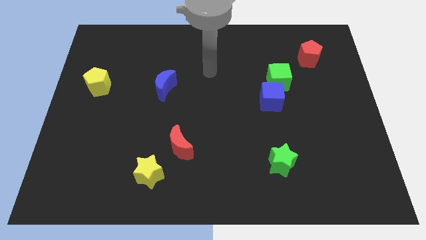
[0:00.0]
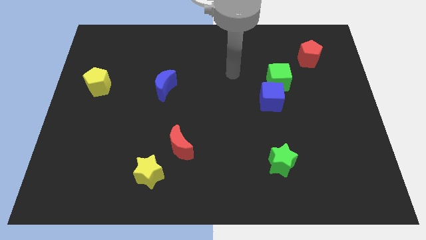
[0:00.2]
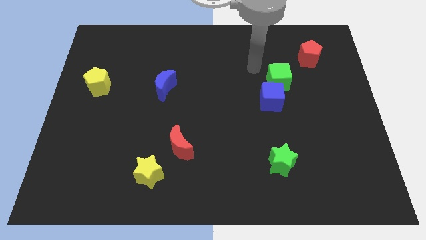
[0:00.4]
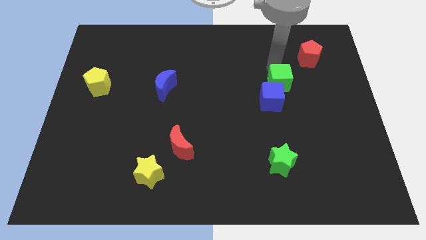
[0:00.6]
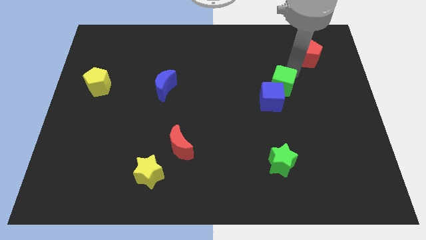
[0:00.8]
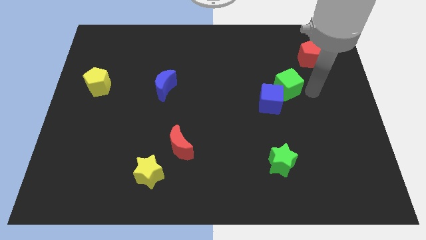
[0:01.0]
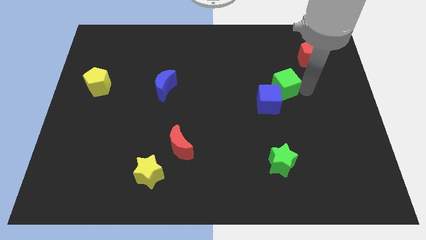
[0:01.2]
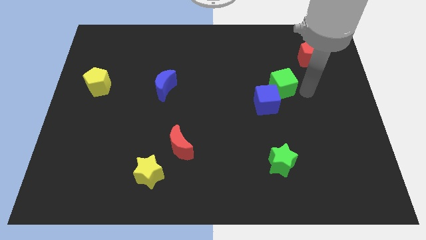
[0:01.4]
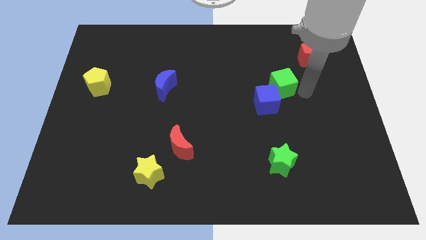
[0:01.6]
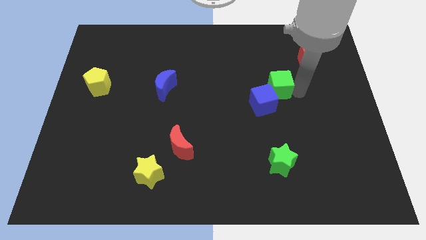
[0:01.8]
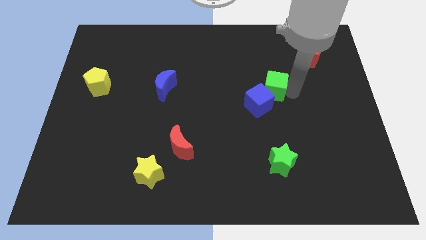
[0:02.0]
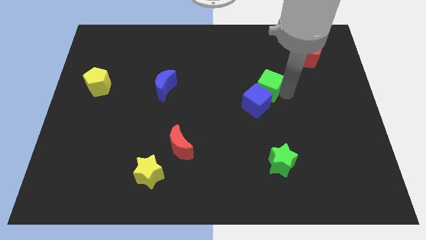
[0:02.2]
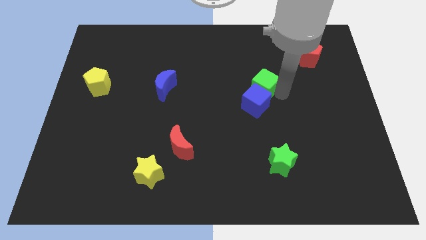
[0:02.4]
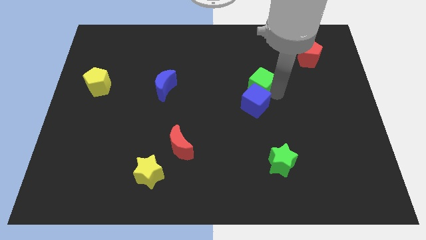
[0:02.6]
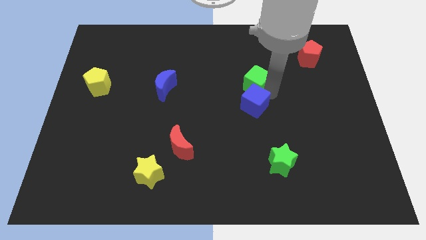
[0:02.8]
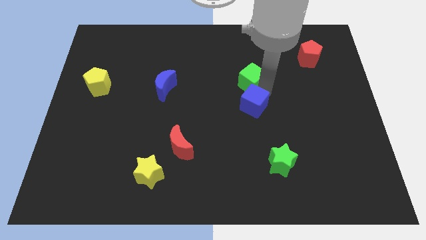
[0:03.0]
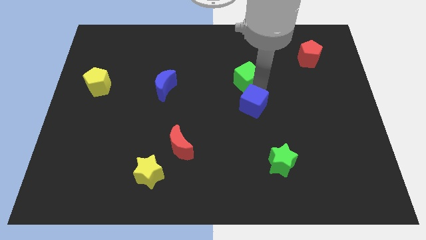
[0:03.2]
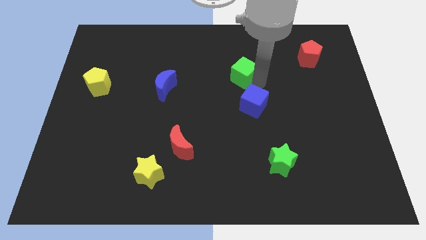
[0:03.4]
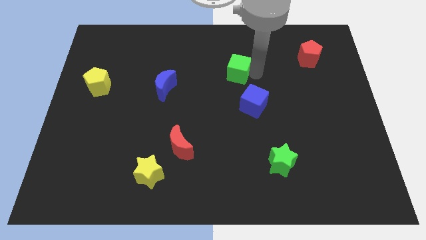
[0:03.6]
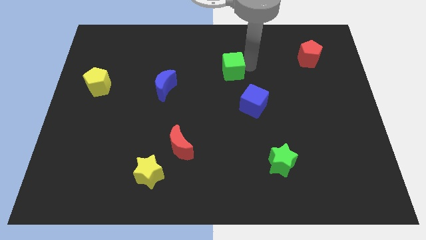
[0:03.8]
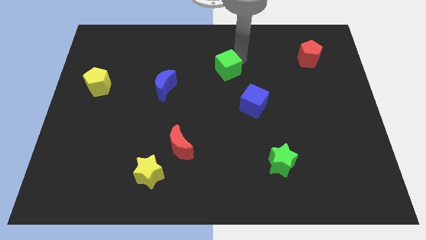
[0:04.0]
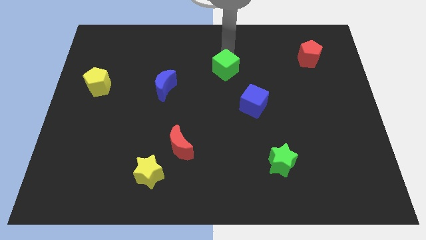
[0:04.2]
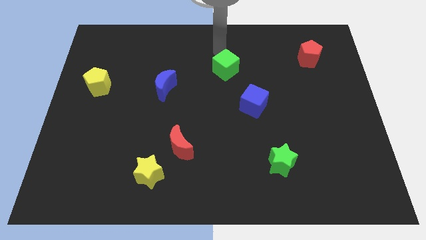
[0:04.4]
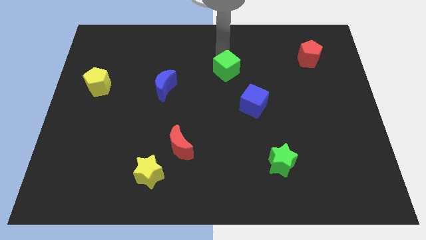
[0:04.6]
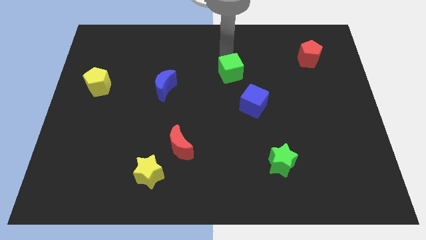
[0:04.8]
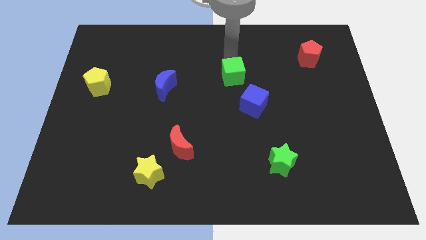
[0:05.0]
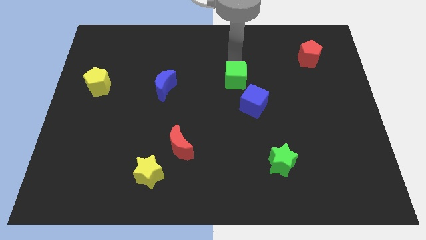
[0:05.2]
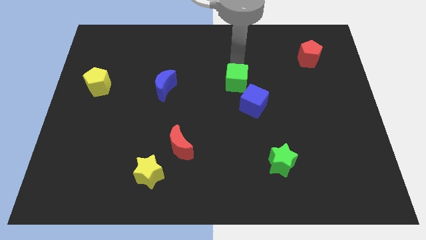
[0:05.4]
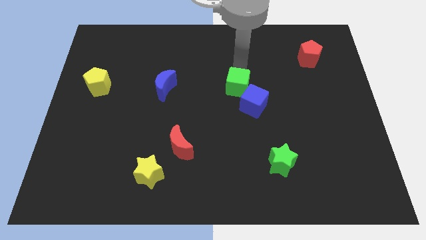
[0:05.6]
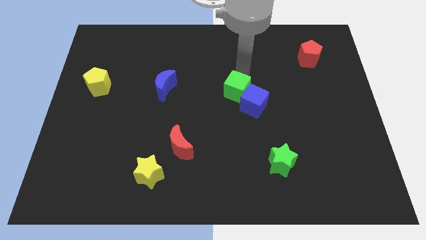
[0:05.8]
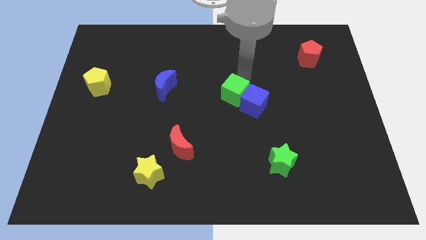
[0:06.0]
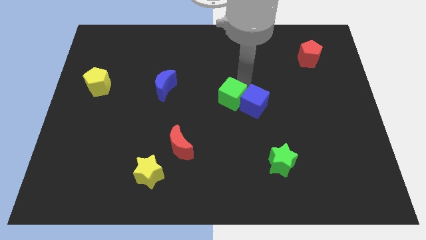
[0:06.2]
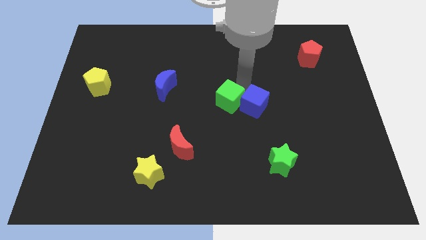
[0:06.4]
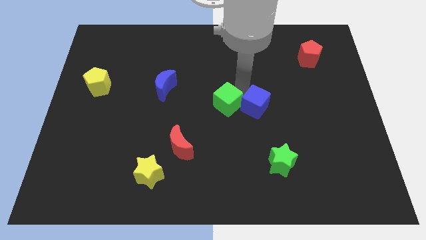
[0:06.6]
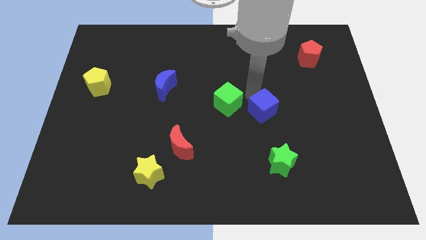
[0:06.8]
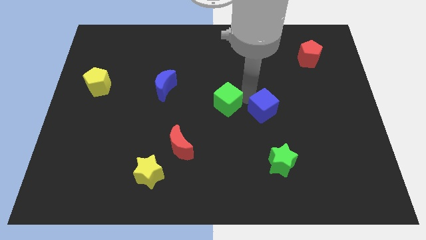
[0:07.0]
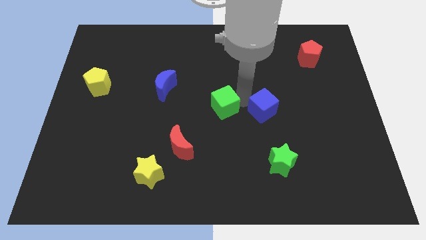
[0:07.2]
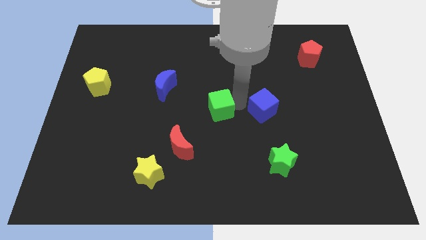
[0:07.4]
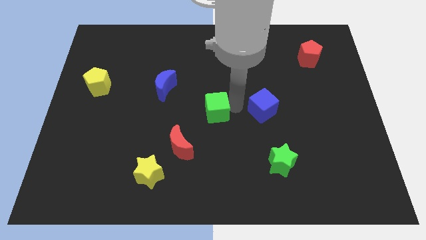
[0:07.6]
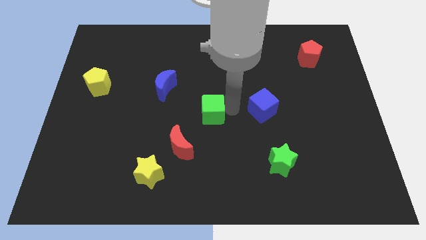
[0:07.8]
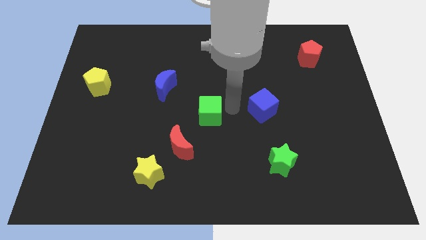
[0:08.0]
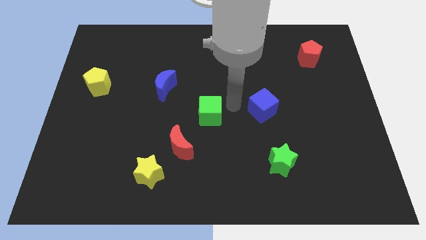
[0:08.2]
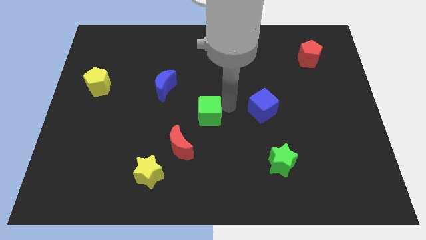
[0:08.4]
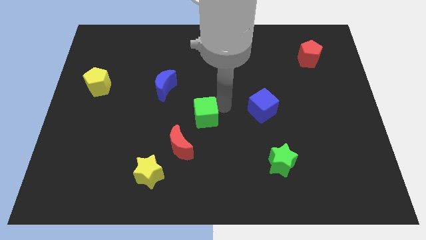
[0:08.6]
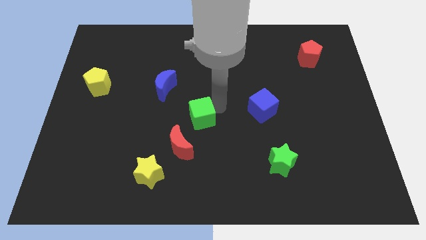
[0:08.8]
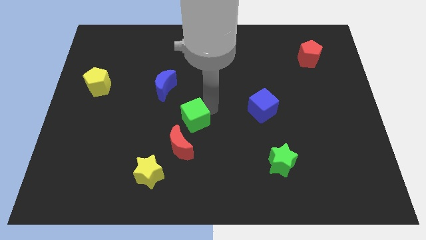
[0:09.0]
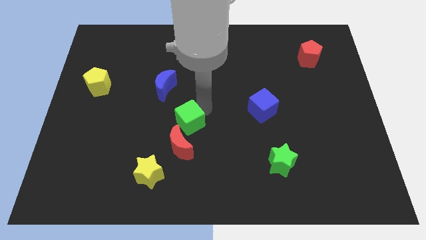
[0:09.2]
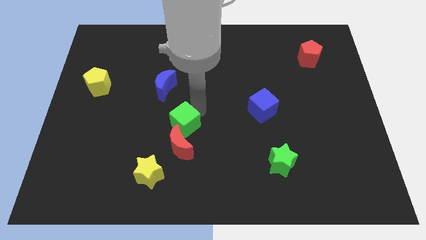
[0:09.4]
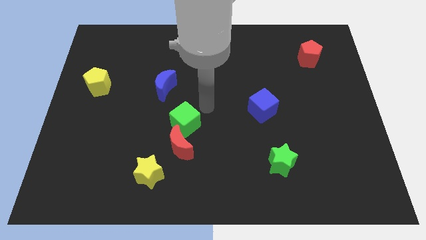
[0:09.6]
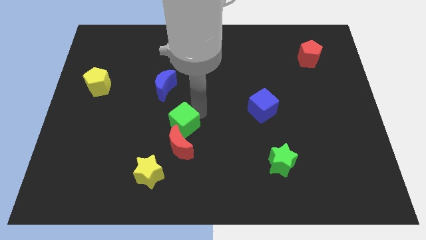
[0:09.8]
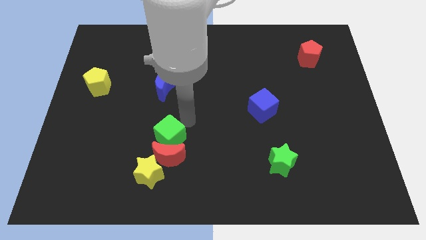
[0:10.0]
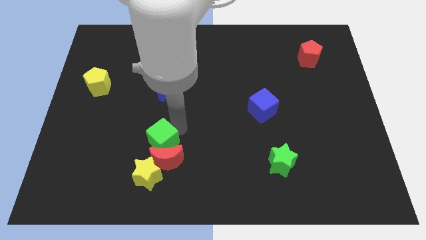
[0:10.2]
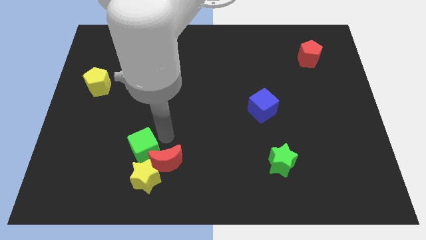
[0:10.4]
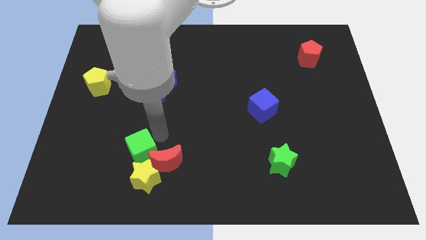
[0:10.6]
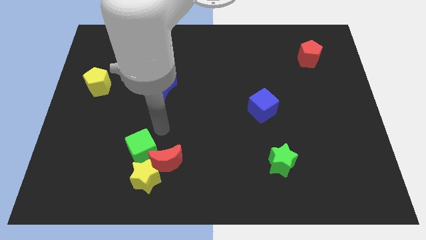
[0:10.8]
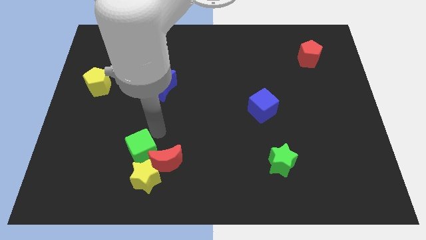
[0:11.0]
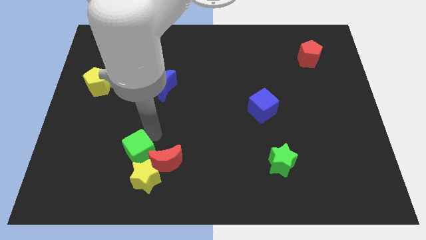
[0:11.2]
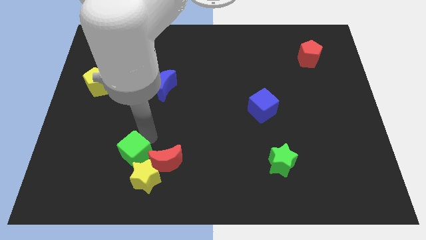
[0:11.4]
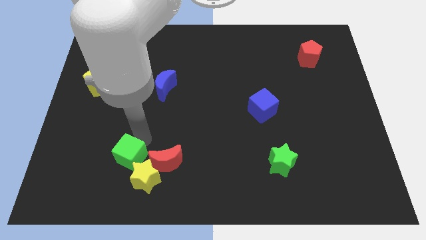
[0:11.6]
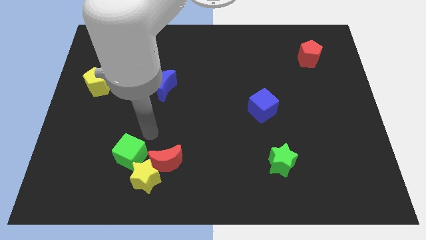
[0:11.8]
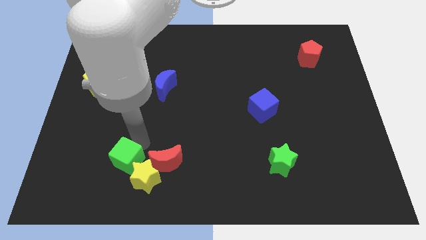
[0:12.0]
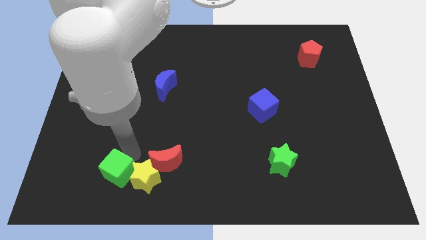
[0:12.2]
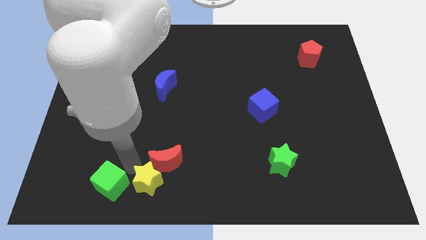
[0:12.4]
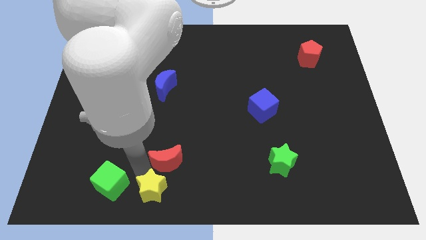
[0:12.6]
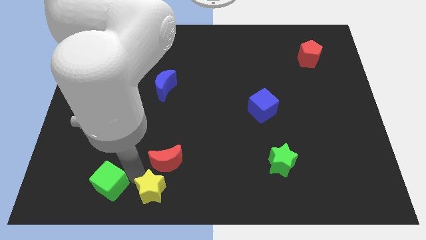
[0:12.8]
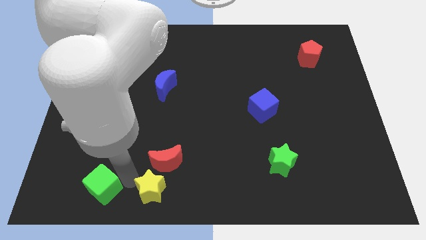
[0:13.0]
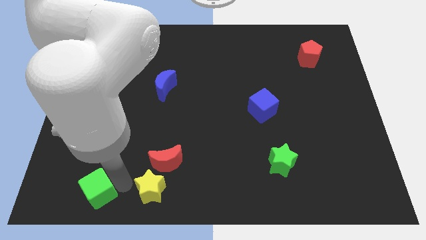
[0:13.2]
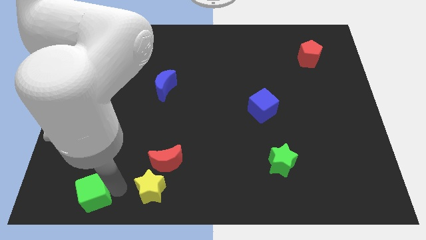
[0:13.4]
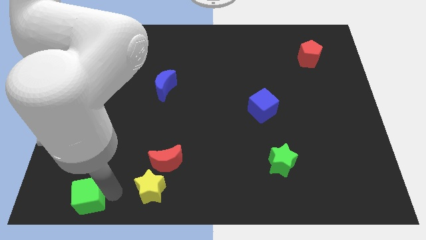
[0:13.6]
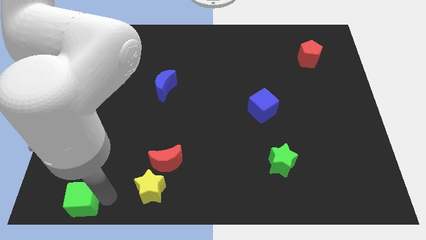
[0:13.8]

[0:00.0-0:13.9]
move the green cube to the lower left corner
